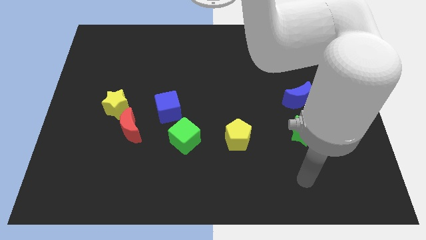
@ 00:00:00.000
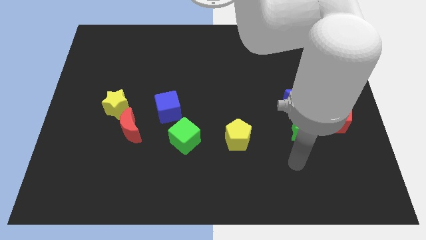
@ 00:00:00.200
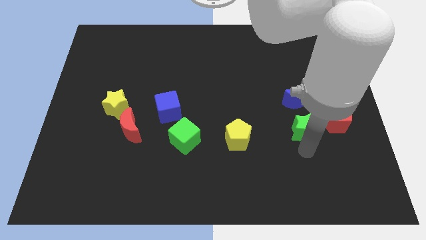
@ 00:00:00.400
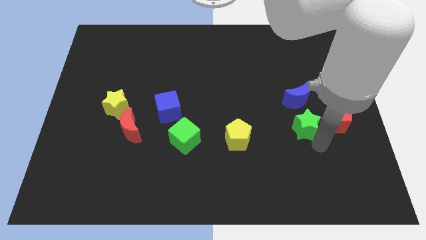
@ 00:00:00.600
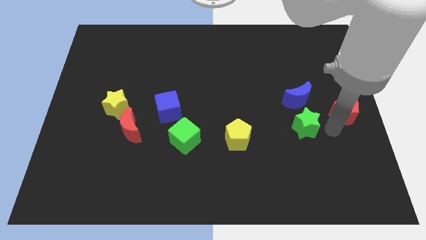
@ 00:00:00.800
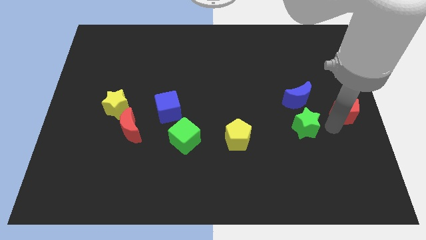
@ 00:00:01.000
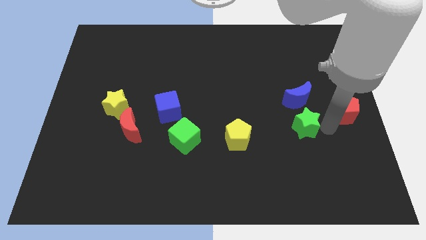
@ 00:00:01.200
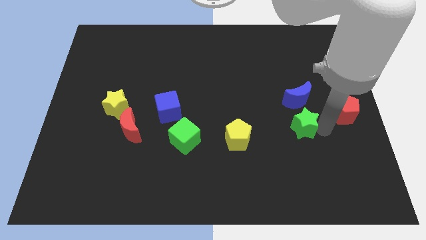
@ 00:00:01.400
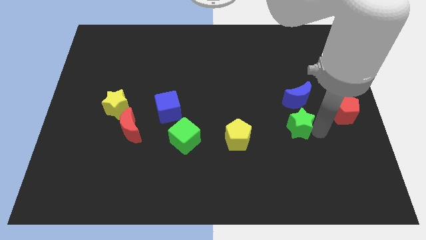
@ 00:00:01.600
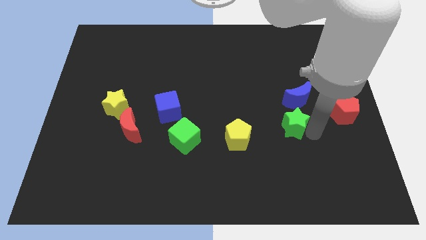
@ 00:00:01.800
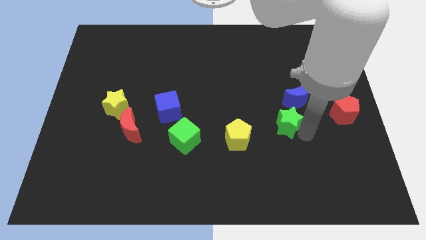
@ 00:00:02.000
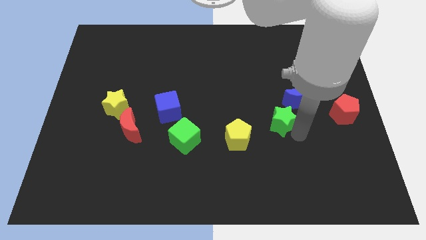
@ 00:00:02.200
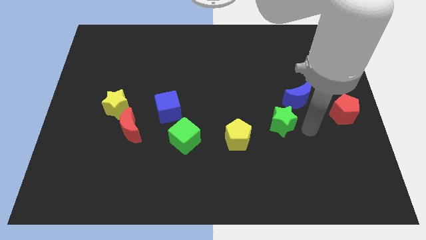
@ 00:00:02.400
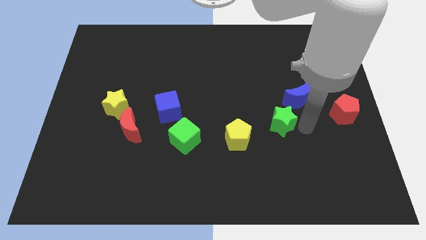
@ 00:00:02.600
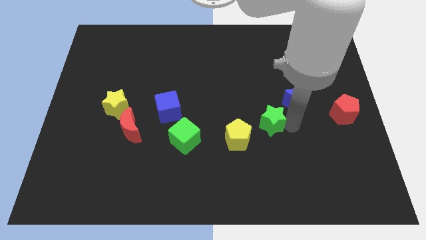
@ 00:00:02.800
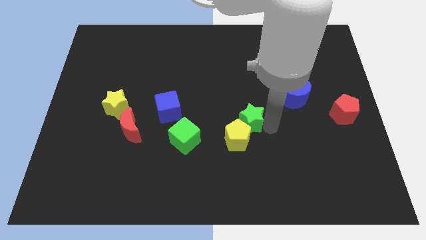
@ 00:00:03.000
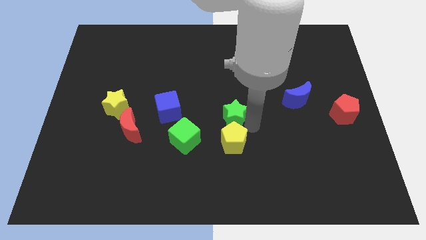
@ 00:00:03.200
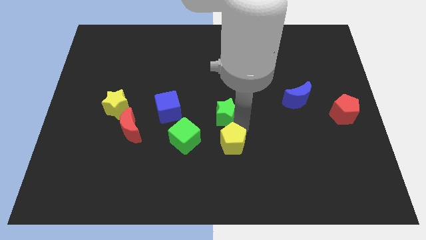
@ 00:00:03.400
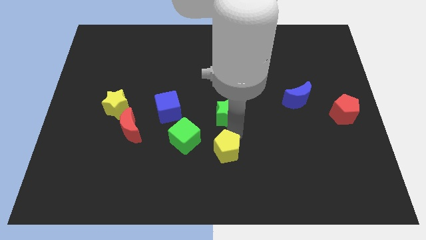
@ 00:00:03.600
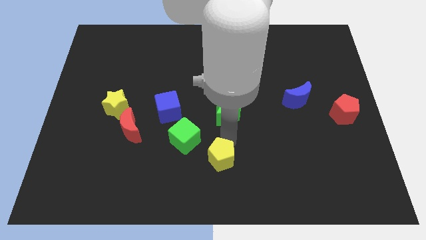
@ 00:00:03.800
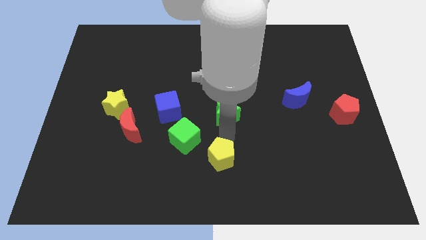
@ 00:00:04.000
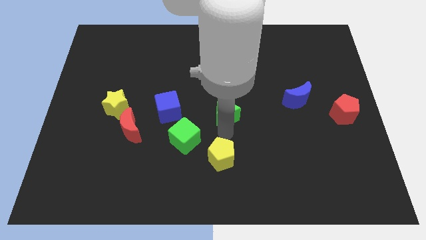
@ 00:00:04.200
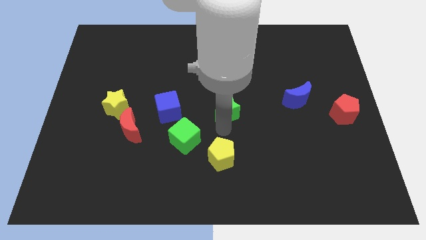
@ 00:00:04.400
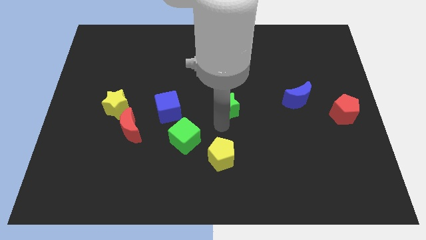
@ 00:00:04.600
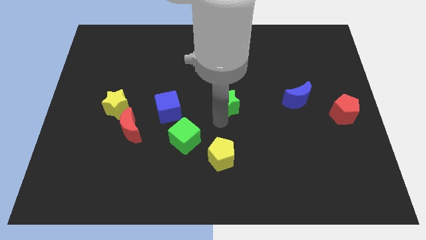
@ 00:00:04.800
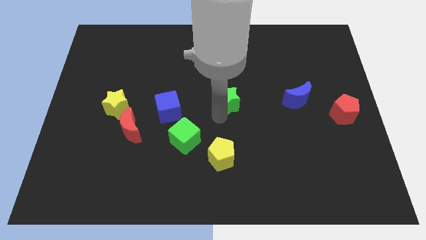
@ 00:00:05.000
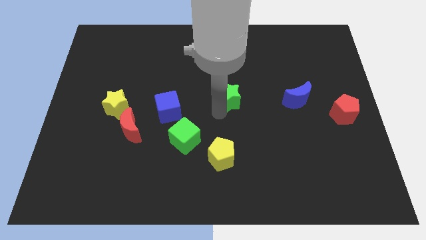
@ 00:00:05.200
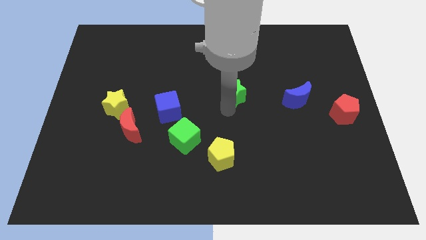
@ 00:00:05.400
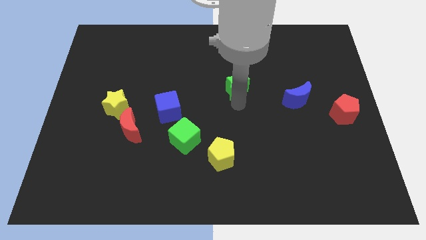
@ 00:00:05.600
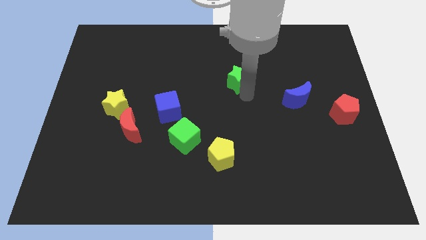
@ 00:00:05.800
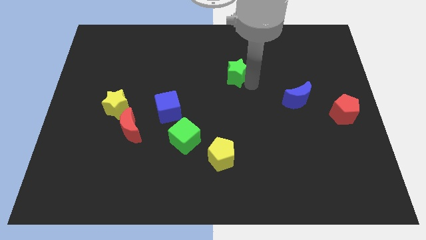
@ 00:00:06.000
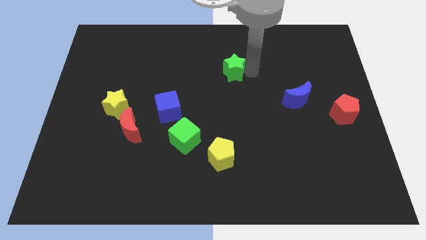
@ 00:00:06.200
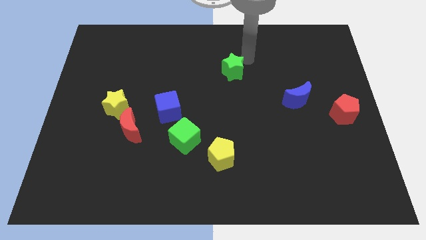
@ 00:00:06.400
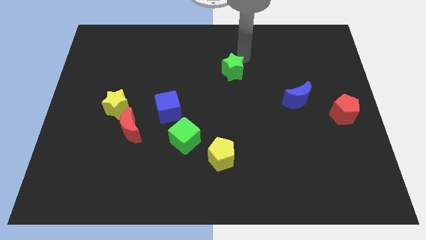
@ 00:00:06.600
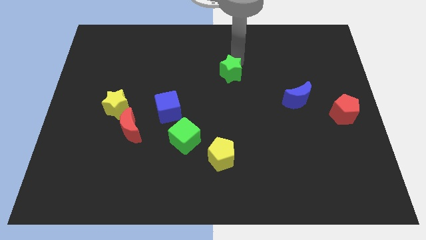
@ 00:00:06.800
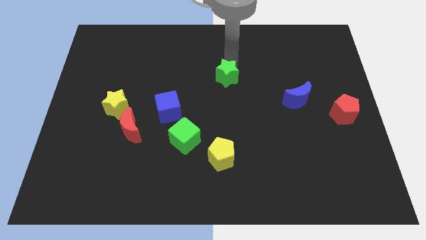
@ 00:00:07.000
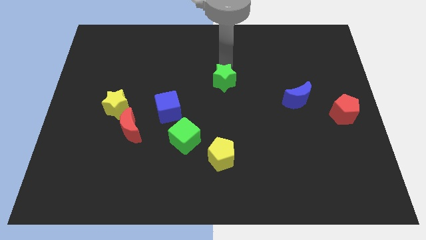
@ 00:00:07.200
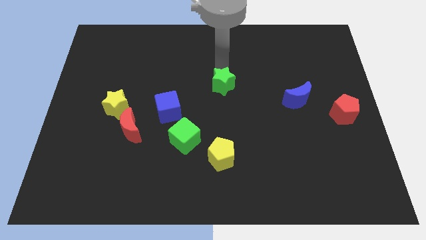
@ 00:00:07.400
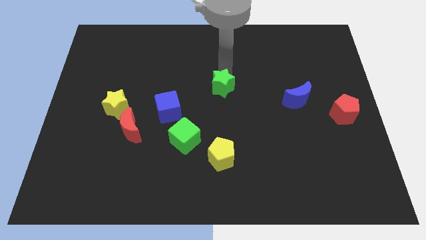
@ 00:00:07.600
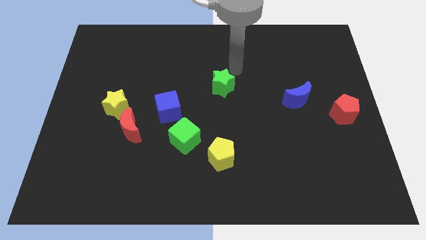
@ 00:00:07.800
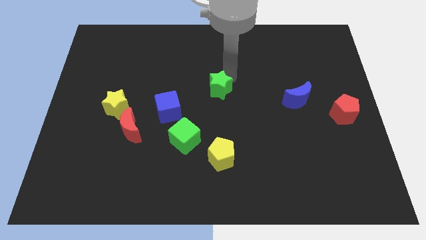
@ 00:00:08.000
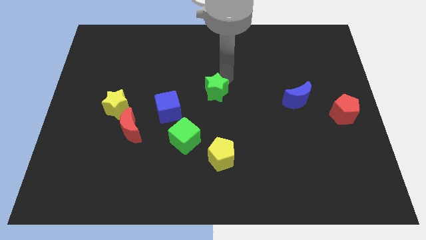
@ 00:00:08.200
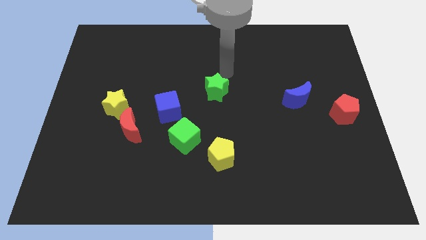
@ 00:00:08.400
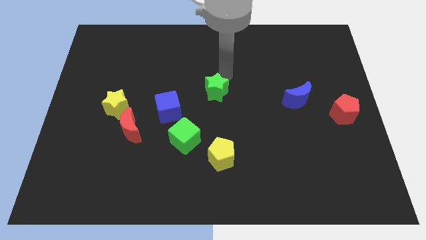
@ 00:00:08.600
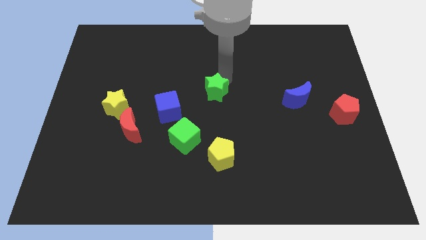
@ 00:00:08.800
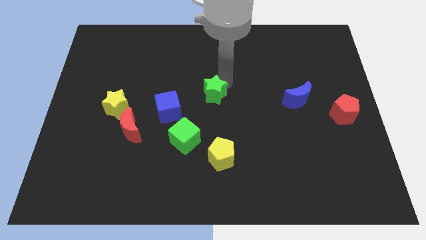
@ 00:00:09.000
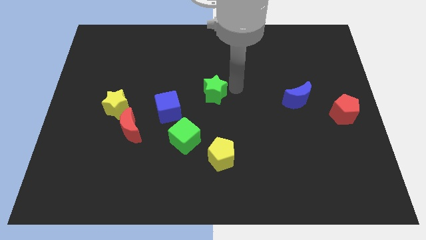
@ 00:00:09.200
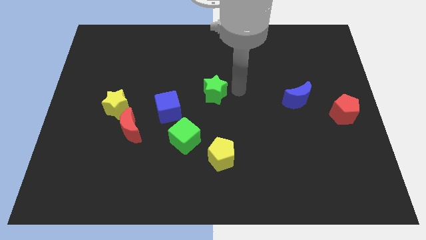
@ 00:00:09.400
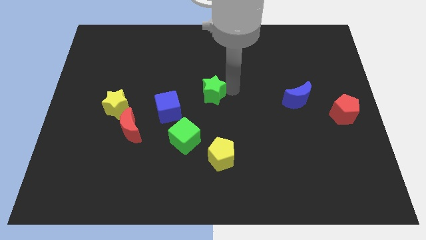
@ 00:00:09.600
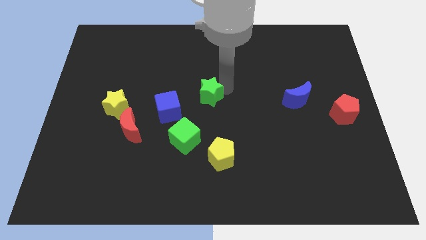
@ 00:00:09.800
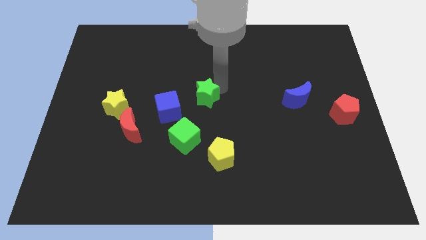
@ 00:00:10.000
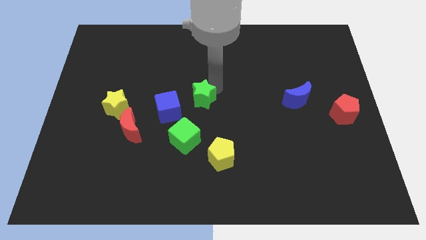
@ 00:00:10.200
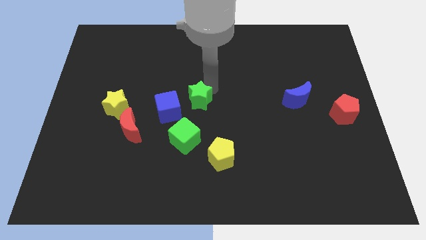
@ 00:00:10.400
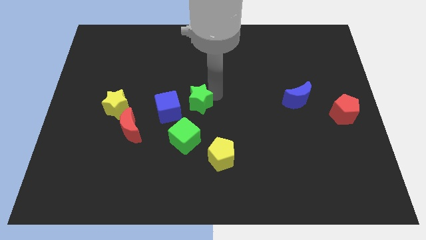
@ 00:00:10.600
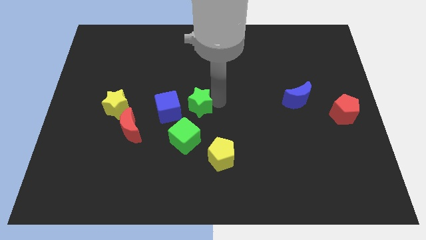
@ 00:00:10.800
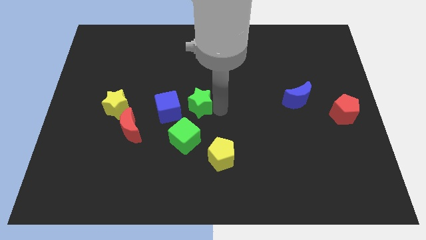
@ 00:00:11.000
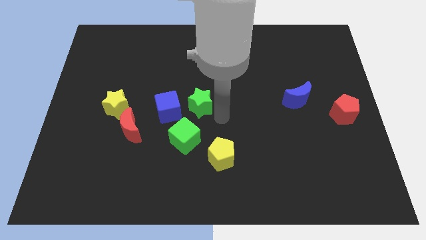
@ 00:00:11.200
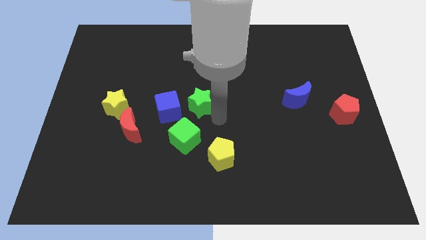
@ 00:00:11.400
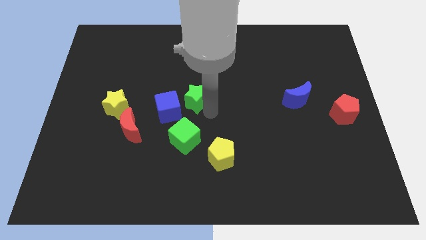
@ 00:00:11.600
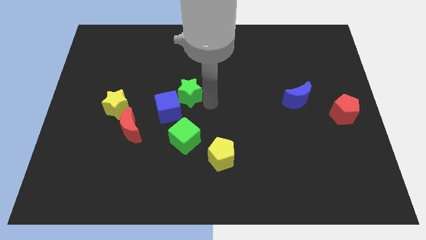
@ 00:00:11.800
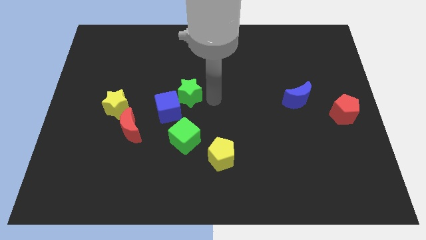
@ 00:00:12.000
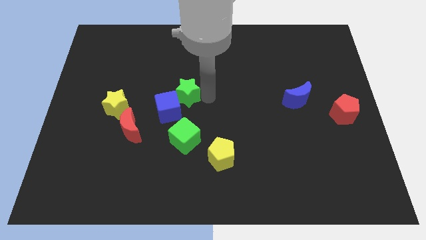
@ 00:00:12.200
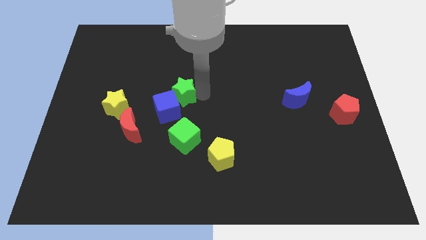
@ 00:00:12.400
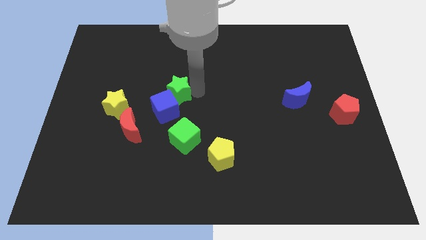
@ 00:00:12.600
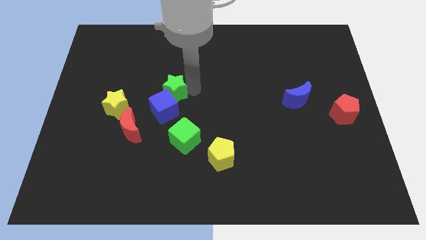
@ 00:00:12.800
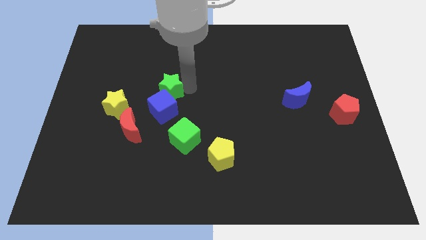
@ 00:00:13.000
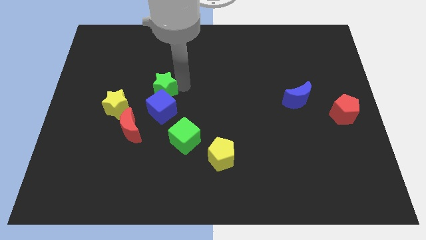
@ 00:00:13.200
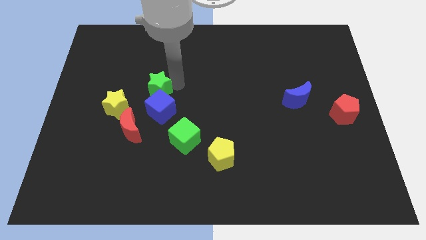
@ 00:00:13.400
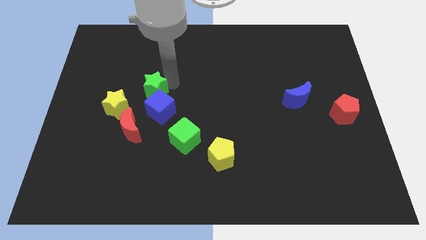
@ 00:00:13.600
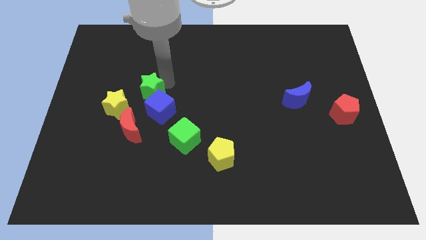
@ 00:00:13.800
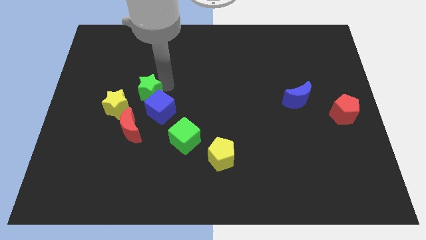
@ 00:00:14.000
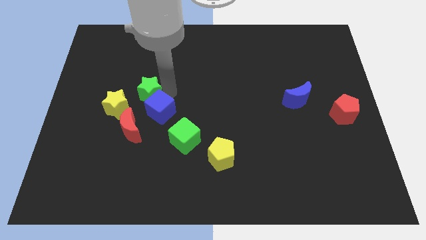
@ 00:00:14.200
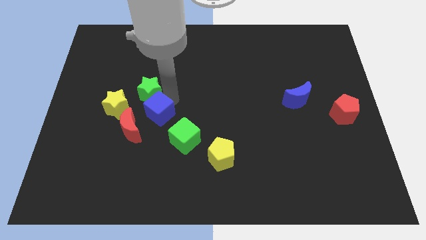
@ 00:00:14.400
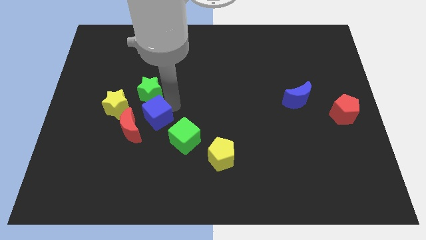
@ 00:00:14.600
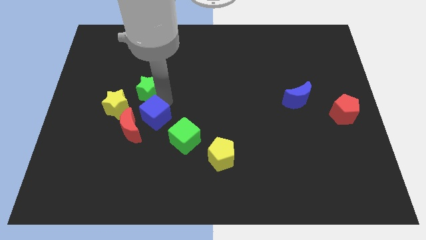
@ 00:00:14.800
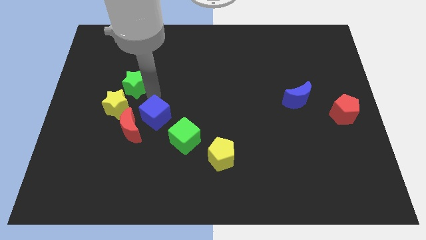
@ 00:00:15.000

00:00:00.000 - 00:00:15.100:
push the green star to the top side of the yellow star
